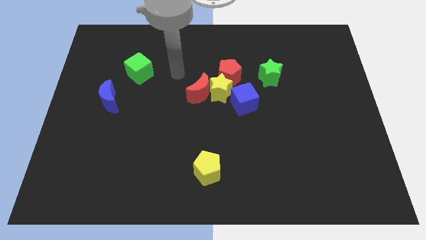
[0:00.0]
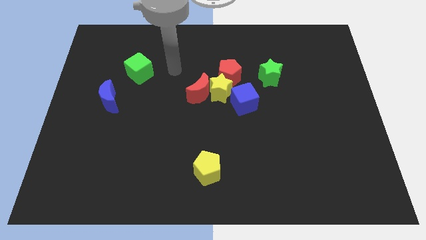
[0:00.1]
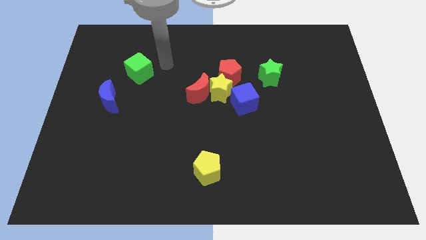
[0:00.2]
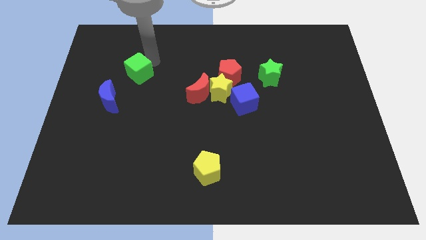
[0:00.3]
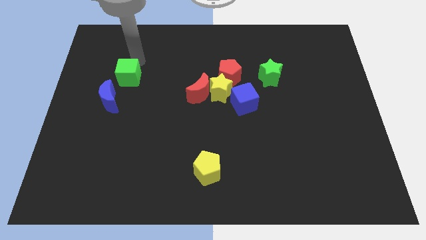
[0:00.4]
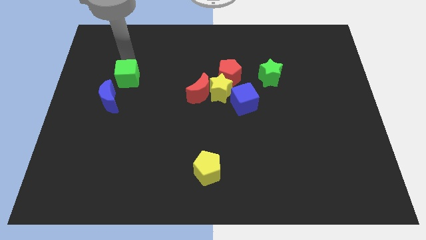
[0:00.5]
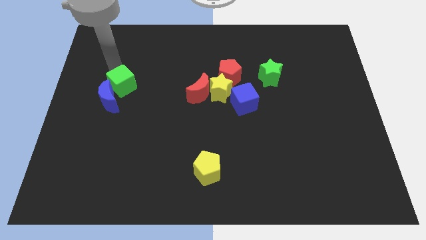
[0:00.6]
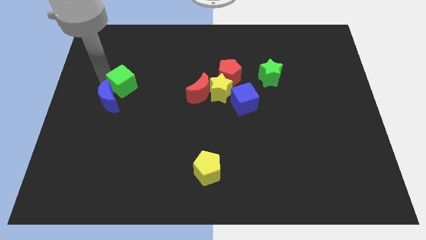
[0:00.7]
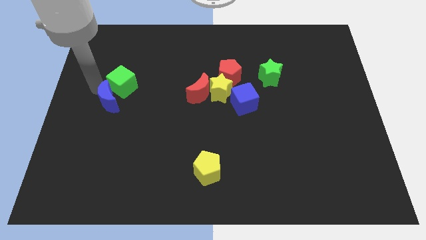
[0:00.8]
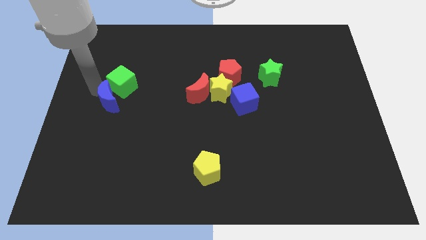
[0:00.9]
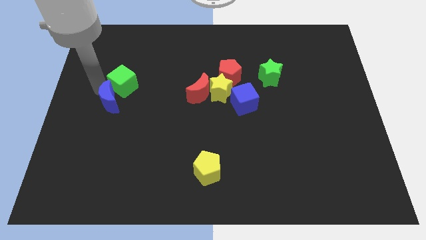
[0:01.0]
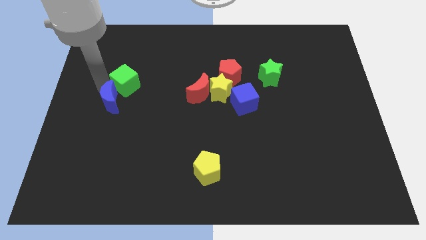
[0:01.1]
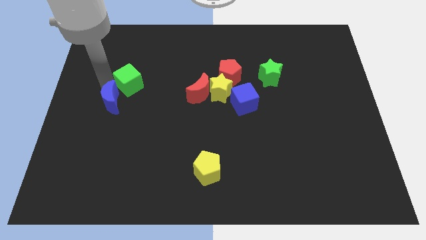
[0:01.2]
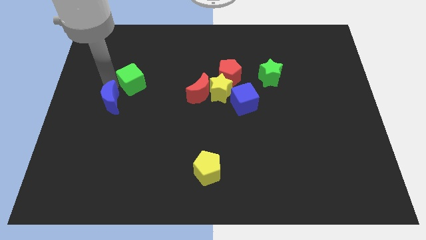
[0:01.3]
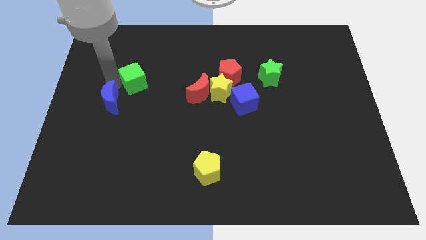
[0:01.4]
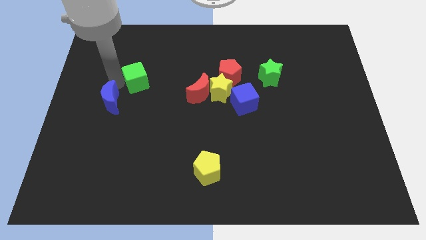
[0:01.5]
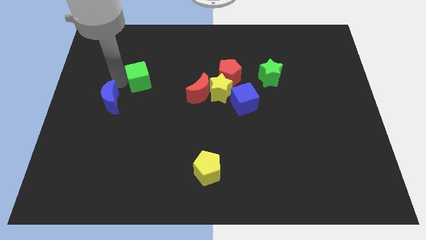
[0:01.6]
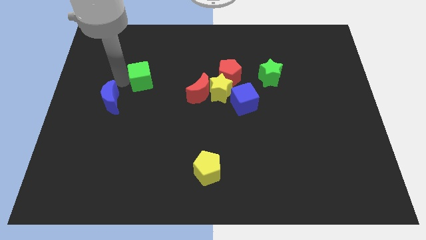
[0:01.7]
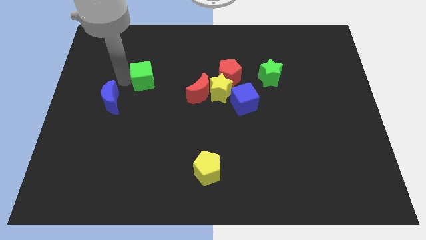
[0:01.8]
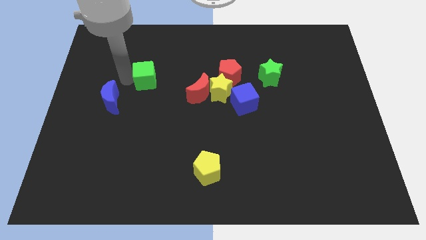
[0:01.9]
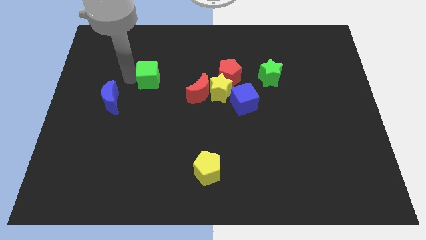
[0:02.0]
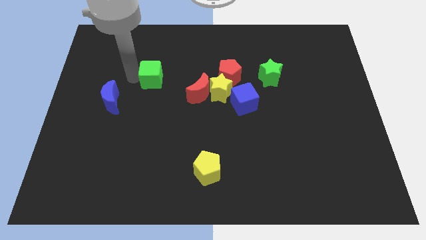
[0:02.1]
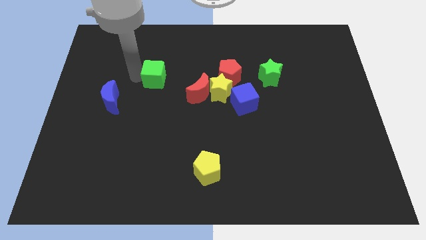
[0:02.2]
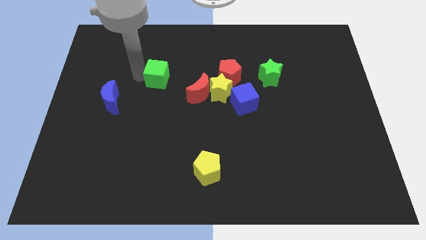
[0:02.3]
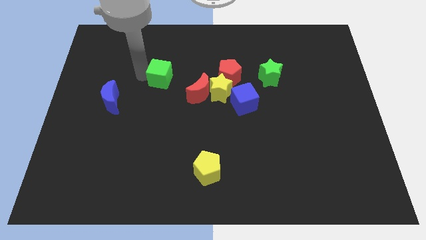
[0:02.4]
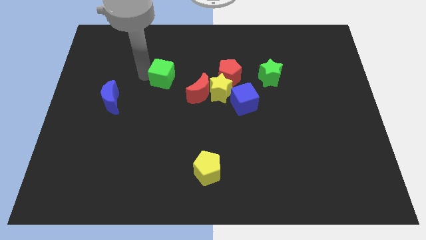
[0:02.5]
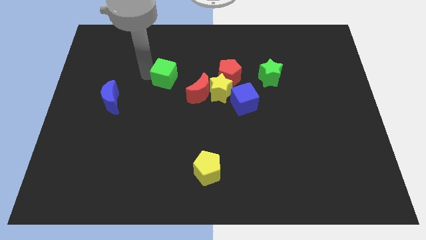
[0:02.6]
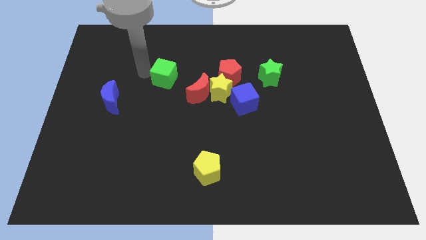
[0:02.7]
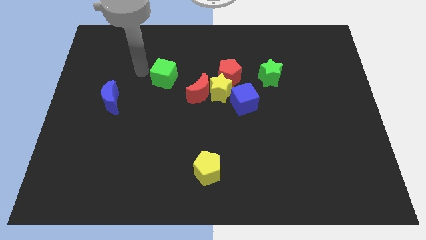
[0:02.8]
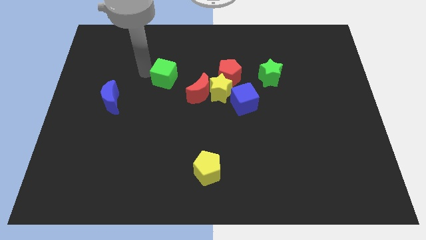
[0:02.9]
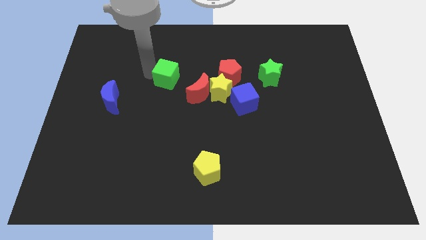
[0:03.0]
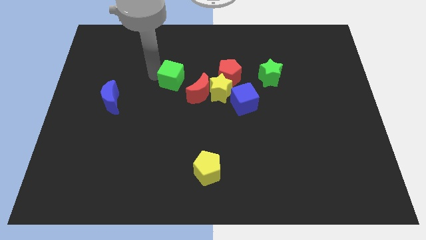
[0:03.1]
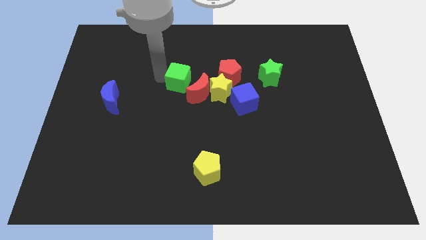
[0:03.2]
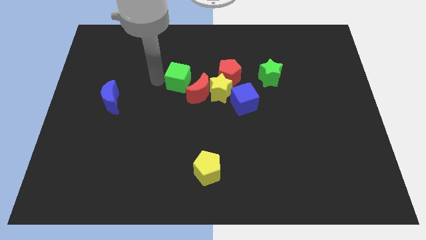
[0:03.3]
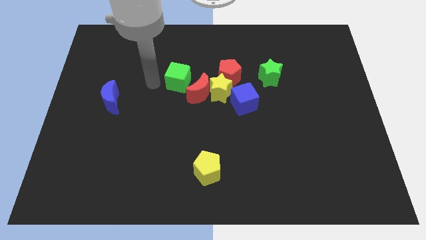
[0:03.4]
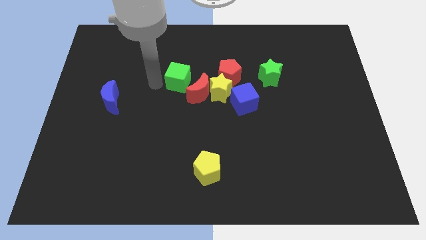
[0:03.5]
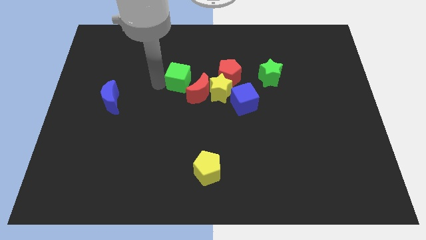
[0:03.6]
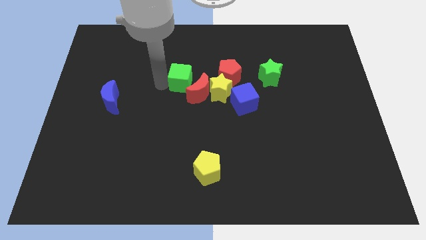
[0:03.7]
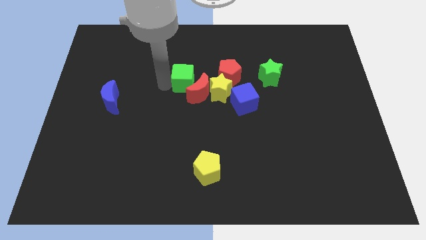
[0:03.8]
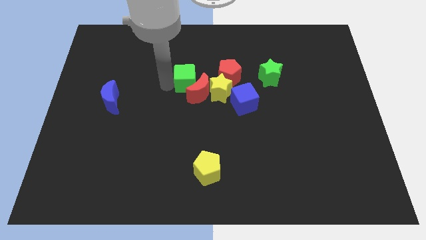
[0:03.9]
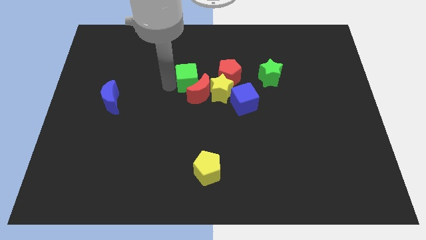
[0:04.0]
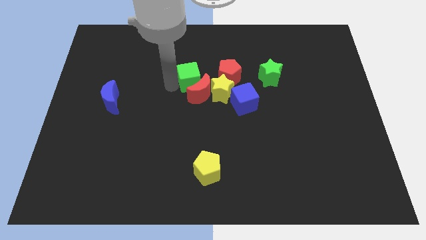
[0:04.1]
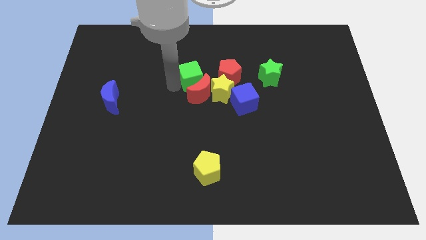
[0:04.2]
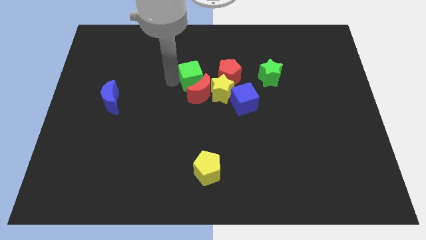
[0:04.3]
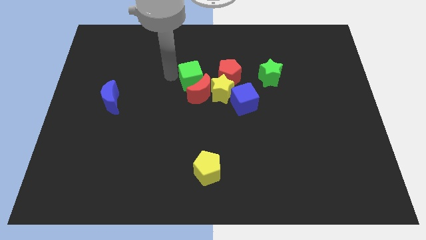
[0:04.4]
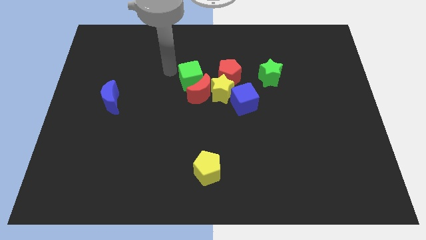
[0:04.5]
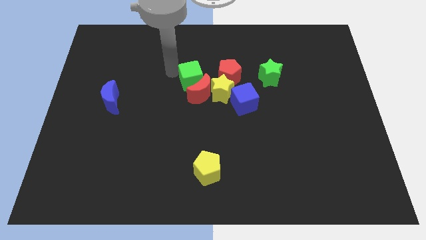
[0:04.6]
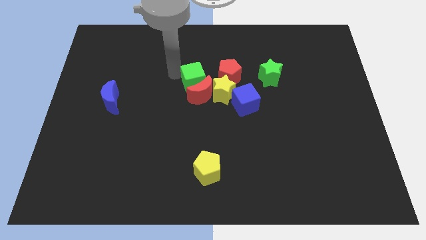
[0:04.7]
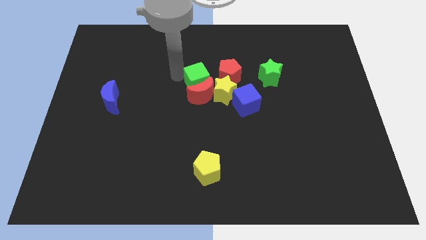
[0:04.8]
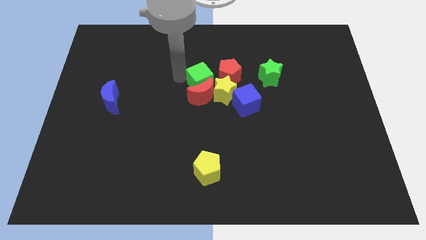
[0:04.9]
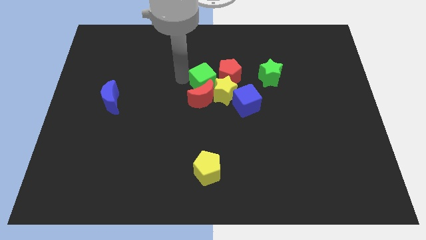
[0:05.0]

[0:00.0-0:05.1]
put the green cube to the yellow star

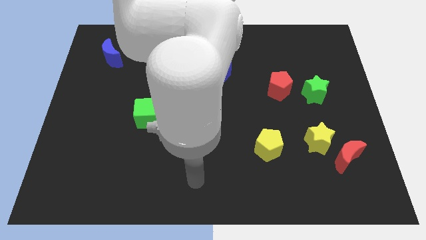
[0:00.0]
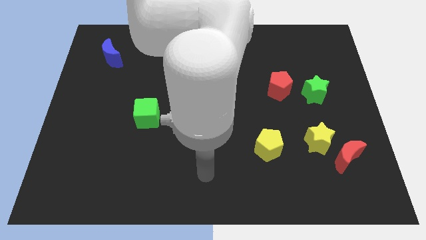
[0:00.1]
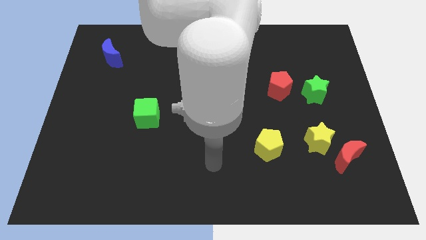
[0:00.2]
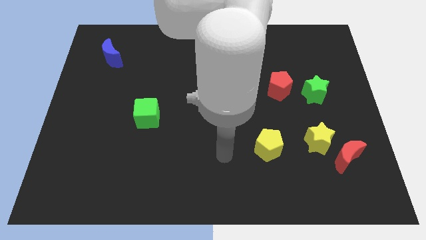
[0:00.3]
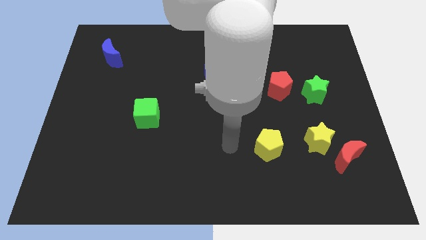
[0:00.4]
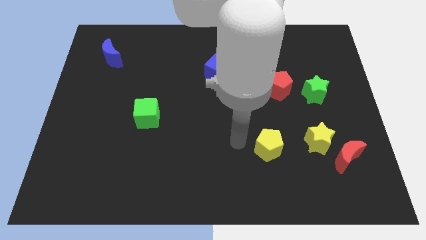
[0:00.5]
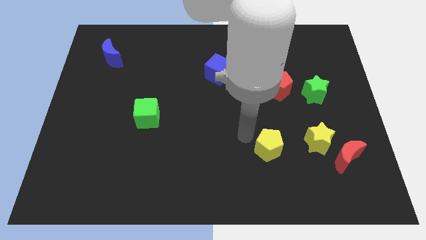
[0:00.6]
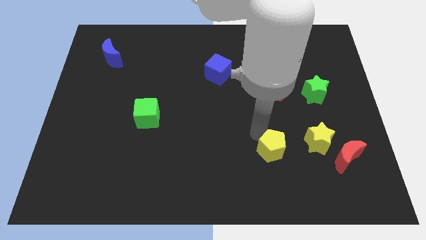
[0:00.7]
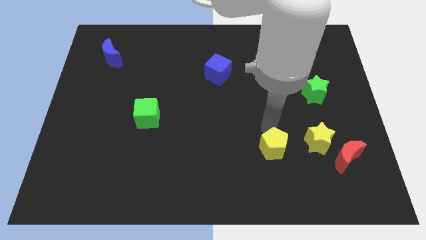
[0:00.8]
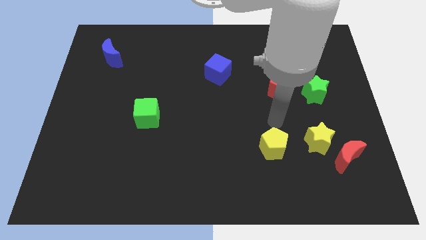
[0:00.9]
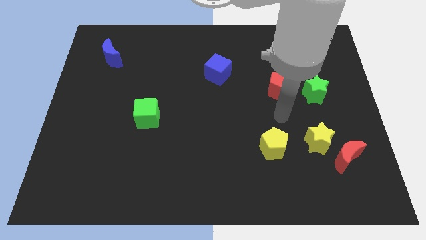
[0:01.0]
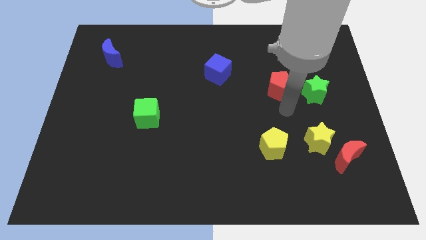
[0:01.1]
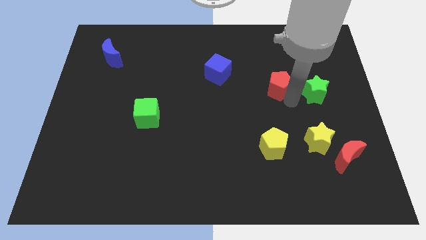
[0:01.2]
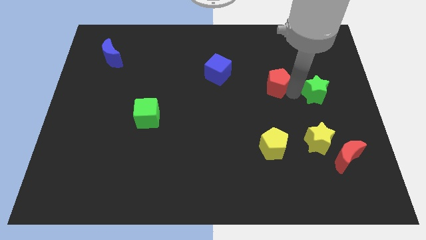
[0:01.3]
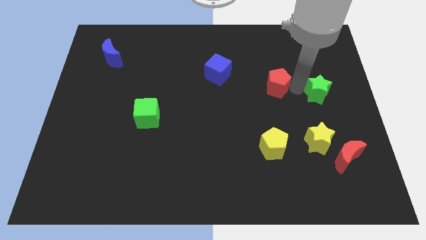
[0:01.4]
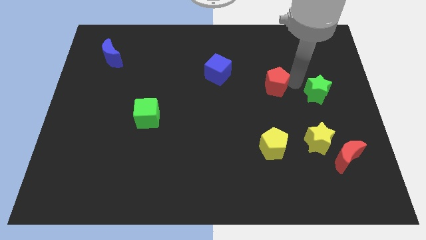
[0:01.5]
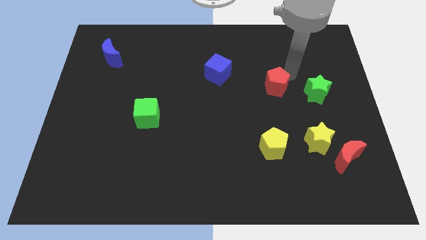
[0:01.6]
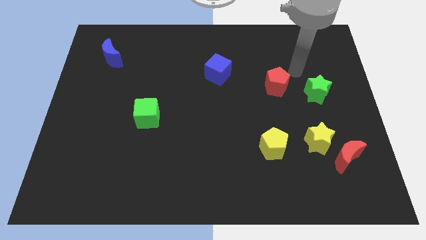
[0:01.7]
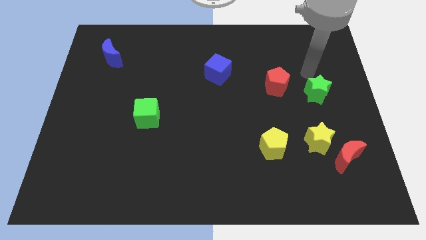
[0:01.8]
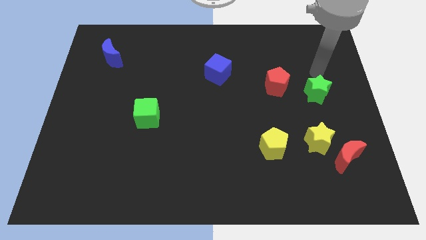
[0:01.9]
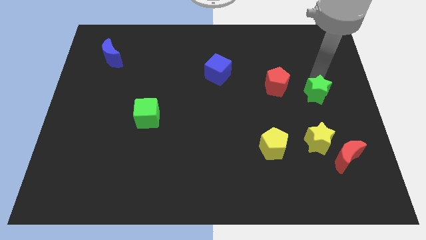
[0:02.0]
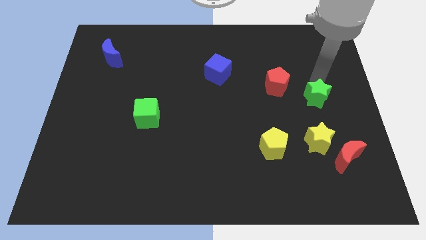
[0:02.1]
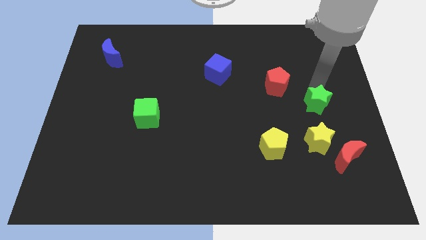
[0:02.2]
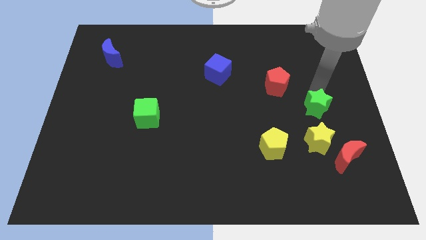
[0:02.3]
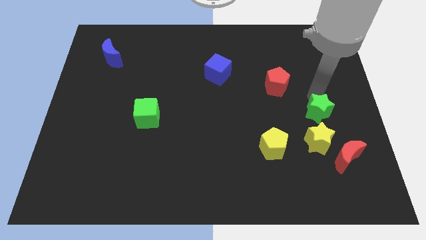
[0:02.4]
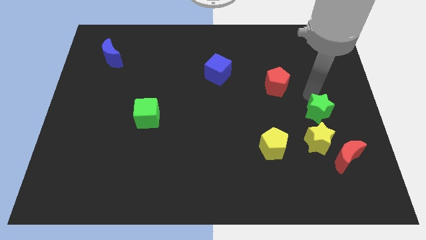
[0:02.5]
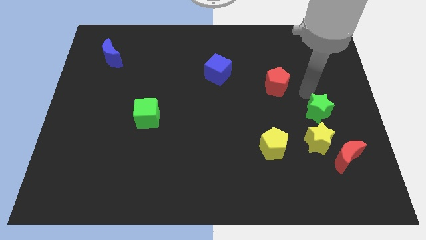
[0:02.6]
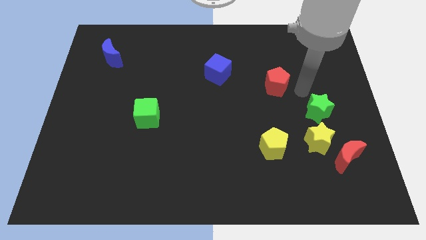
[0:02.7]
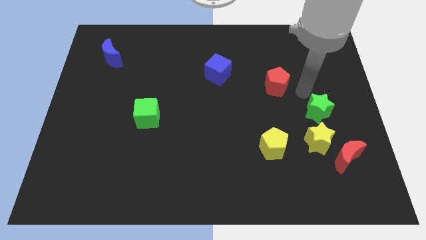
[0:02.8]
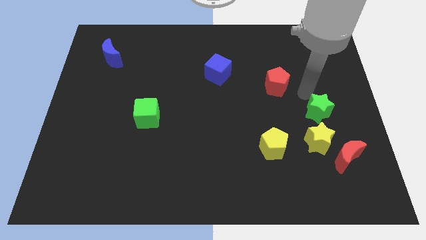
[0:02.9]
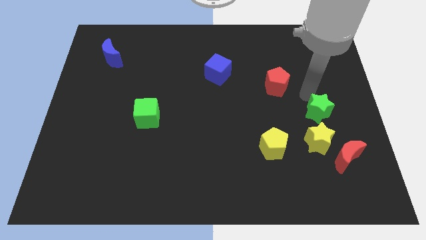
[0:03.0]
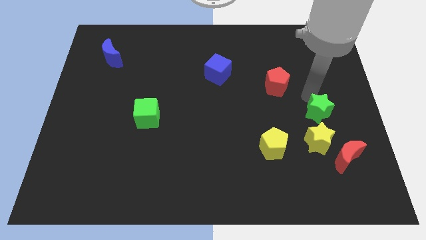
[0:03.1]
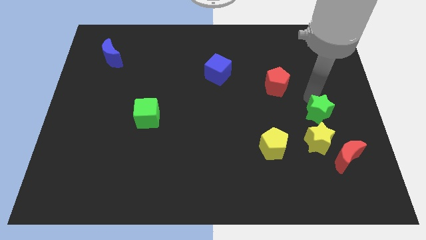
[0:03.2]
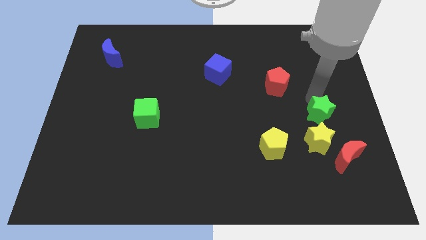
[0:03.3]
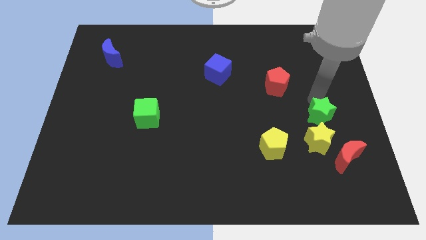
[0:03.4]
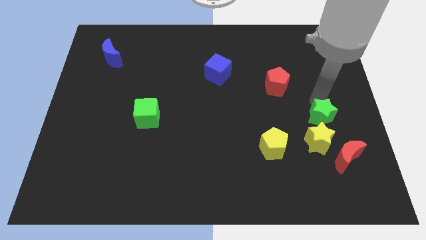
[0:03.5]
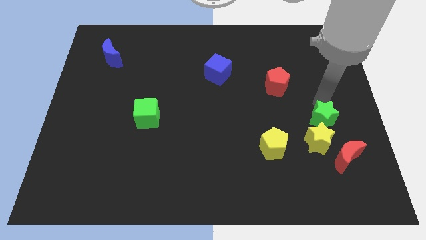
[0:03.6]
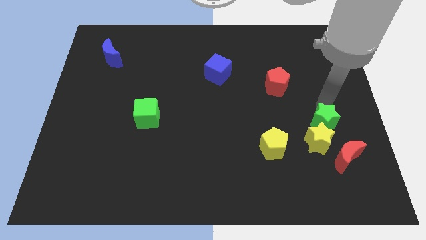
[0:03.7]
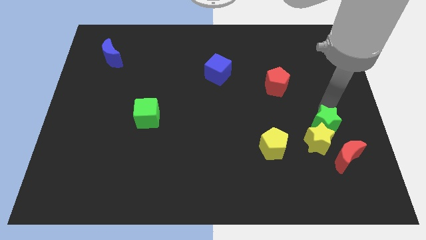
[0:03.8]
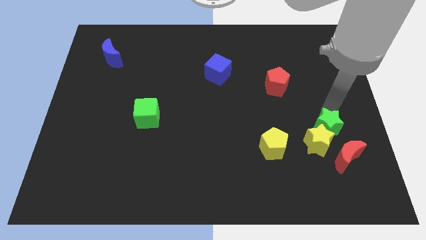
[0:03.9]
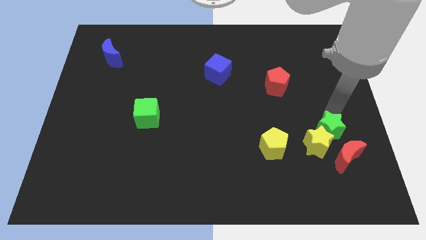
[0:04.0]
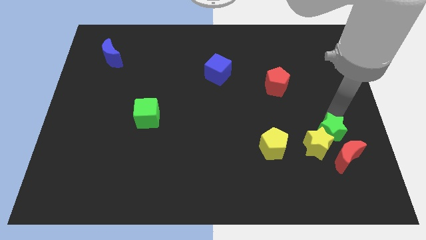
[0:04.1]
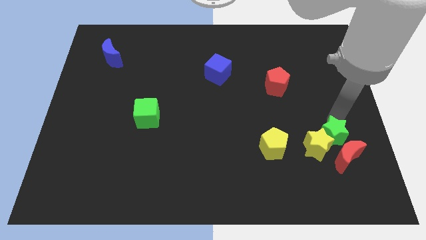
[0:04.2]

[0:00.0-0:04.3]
slide the green star next to the red moon
